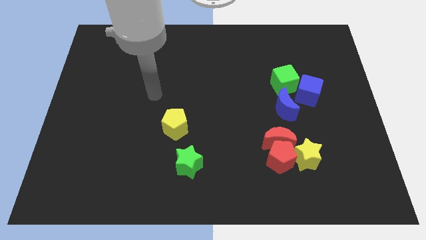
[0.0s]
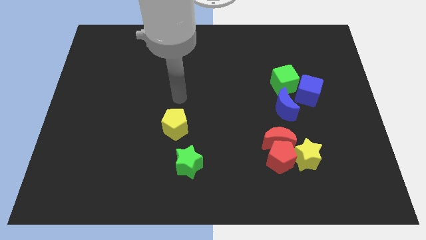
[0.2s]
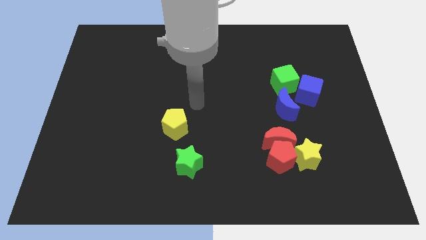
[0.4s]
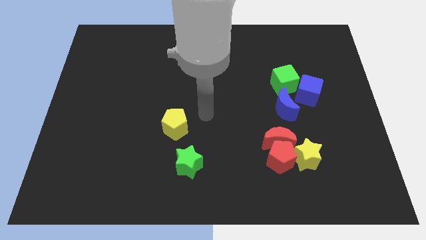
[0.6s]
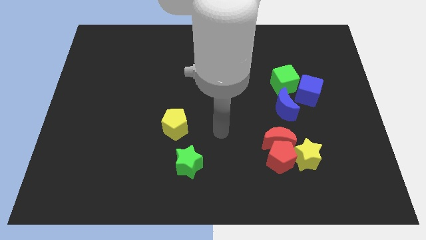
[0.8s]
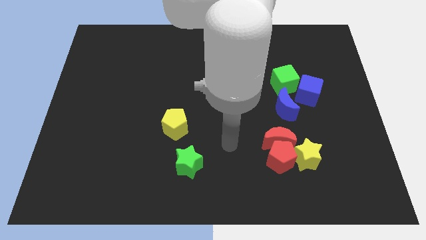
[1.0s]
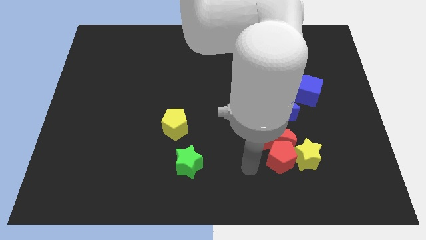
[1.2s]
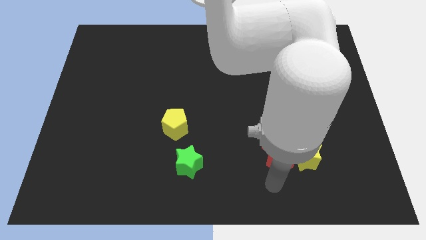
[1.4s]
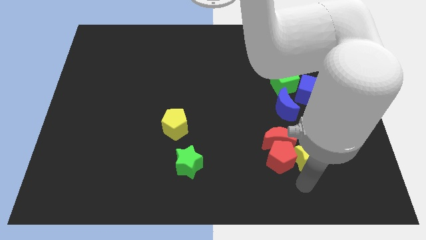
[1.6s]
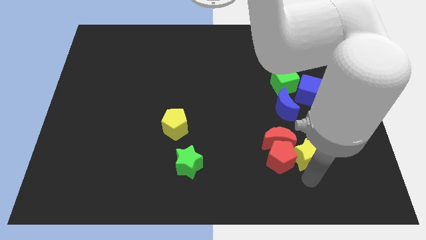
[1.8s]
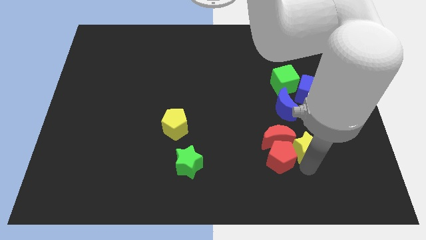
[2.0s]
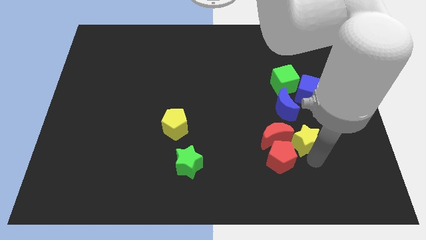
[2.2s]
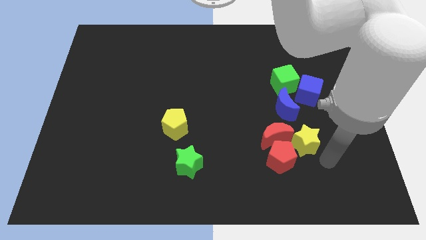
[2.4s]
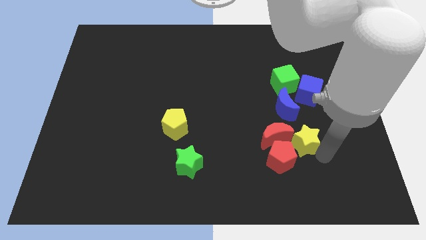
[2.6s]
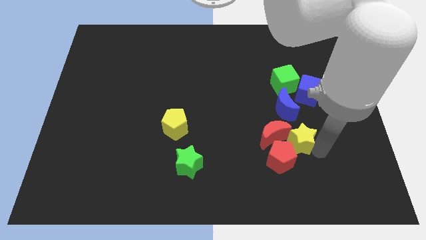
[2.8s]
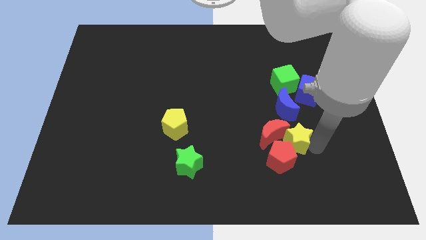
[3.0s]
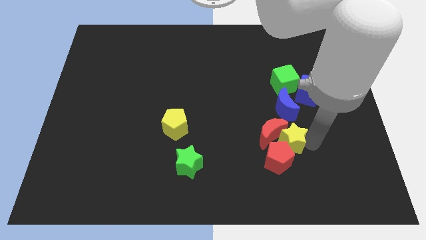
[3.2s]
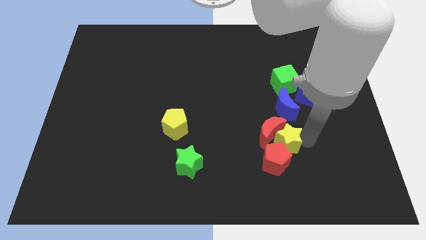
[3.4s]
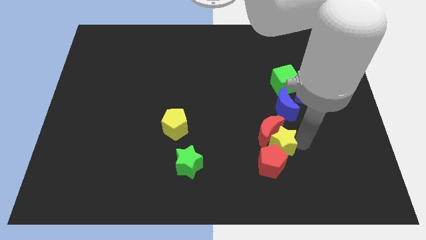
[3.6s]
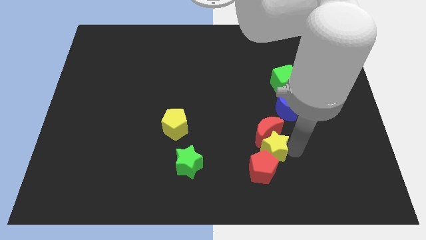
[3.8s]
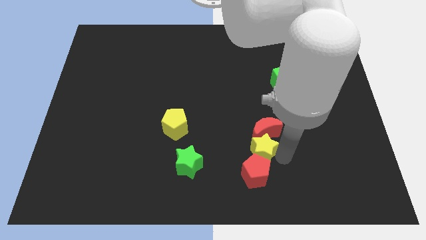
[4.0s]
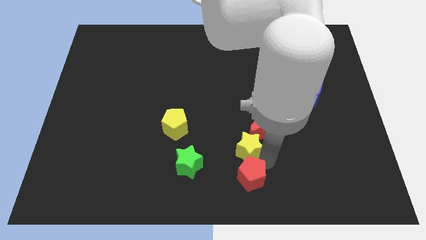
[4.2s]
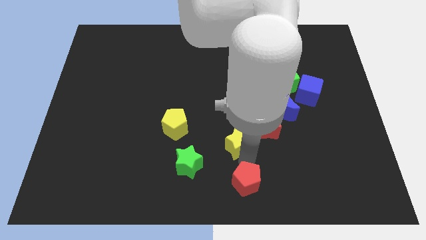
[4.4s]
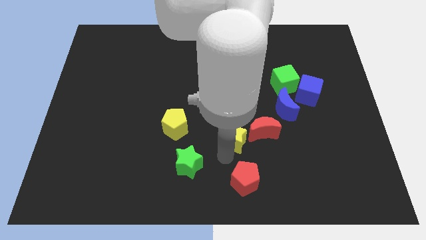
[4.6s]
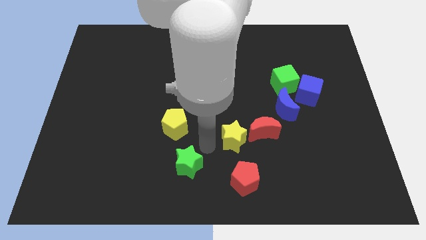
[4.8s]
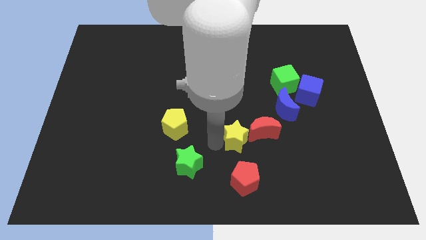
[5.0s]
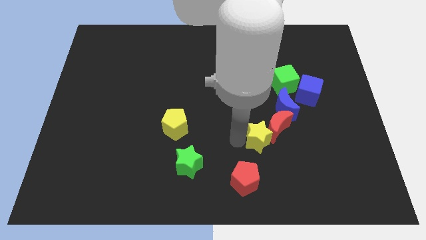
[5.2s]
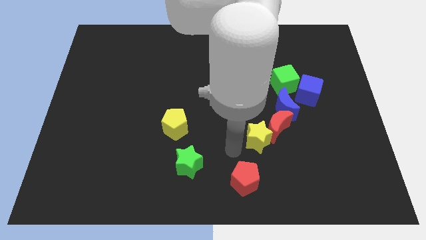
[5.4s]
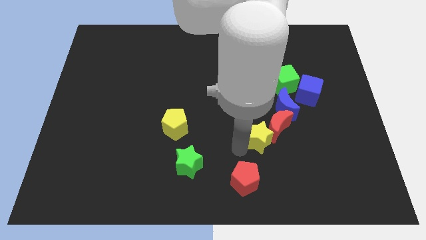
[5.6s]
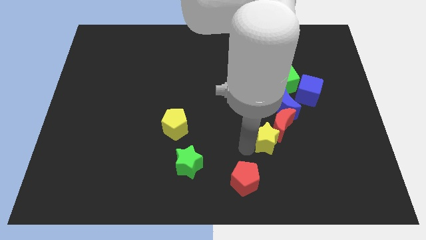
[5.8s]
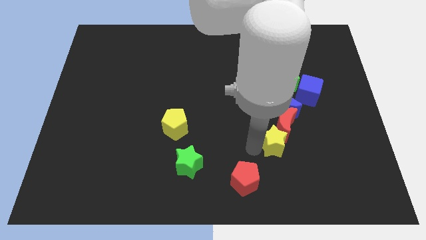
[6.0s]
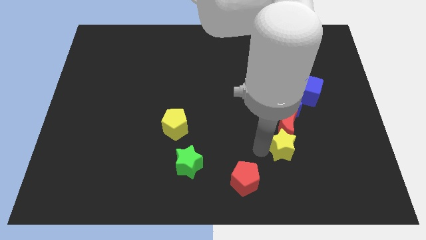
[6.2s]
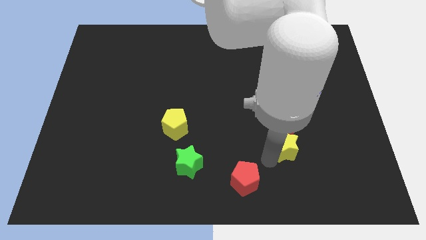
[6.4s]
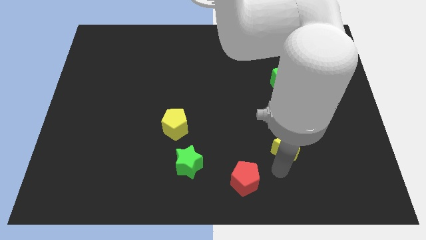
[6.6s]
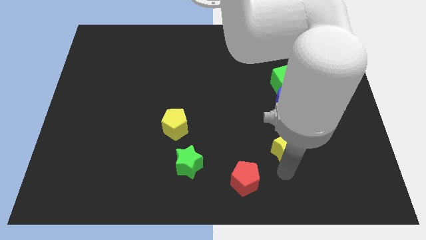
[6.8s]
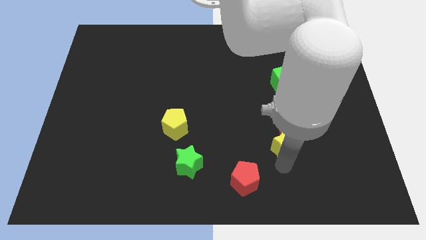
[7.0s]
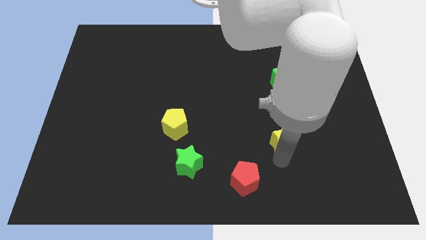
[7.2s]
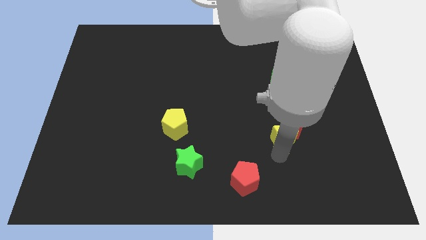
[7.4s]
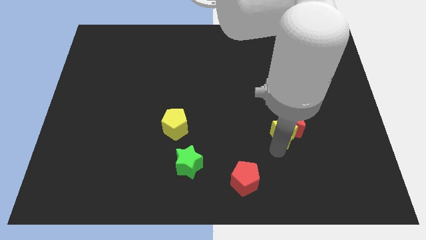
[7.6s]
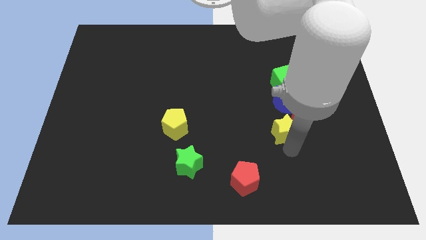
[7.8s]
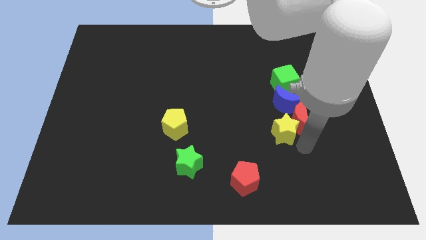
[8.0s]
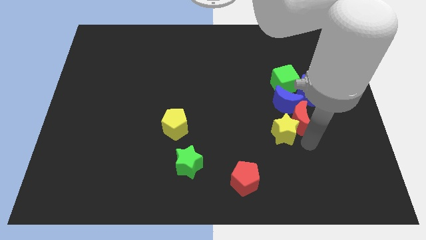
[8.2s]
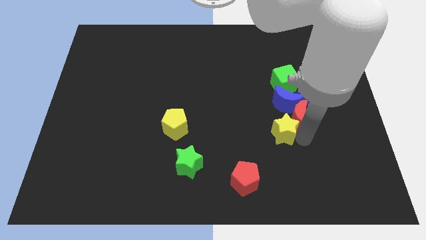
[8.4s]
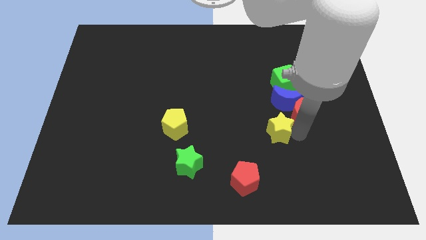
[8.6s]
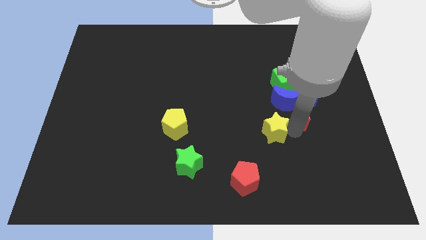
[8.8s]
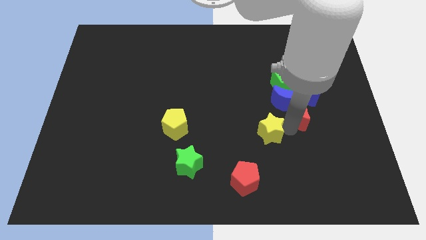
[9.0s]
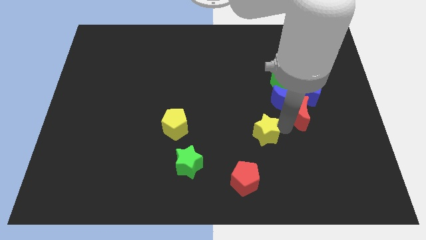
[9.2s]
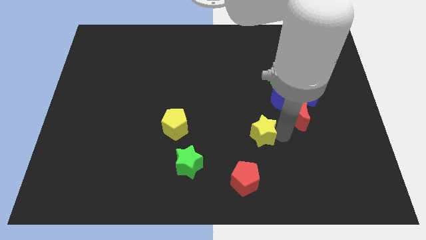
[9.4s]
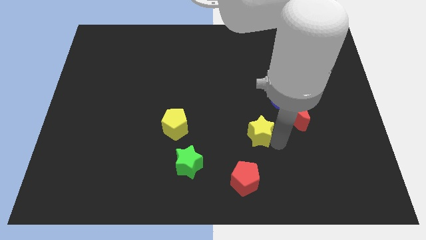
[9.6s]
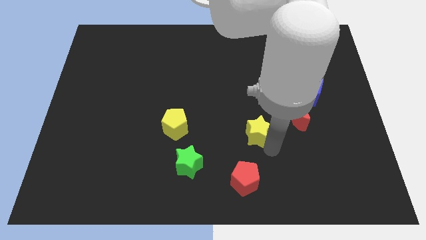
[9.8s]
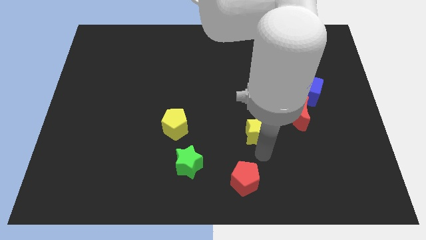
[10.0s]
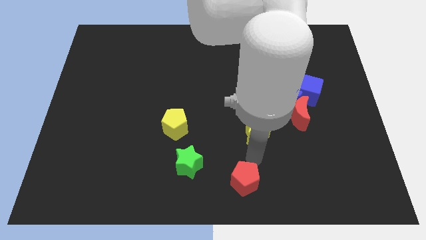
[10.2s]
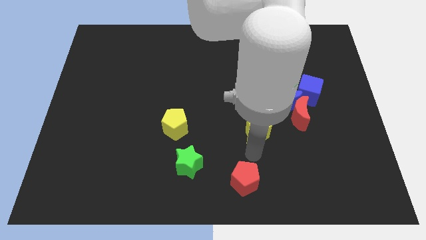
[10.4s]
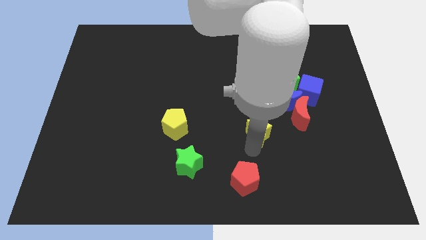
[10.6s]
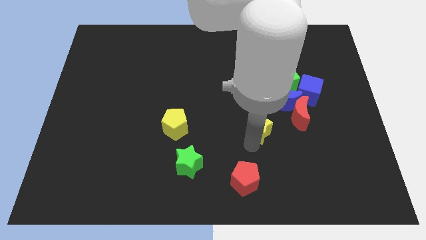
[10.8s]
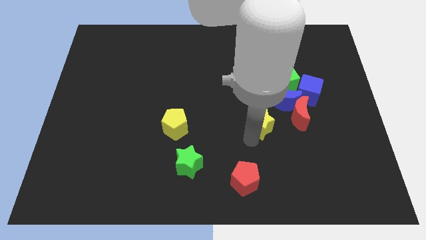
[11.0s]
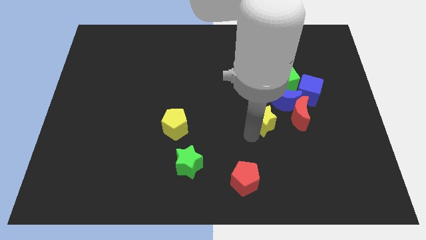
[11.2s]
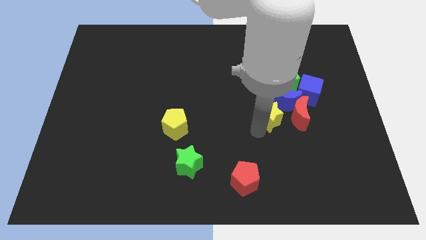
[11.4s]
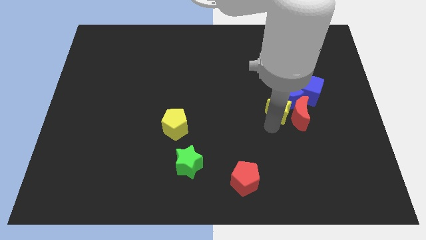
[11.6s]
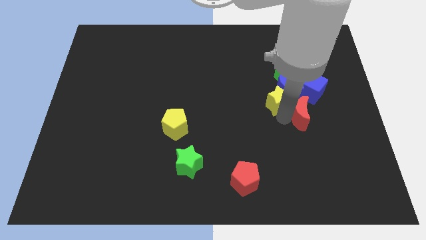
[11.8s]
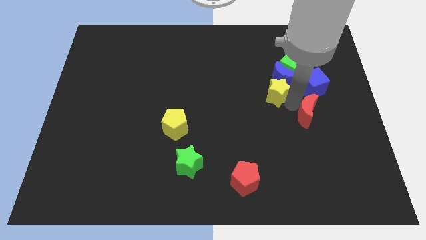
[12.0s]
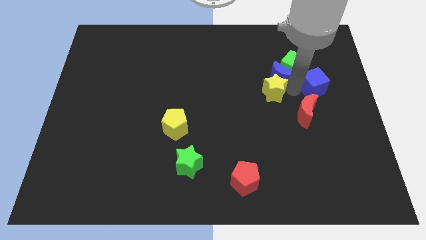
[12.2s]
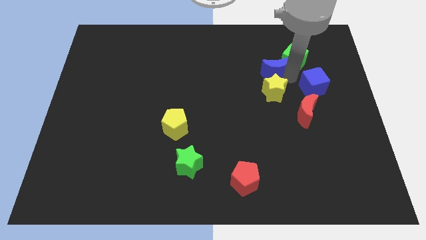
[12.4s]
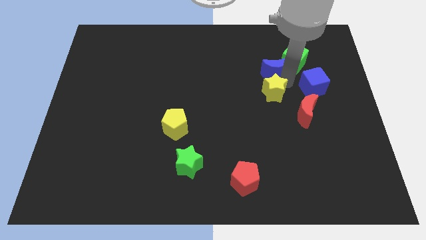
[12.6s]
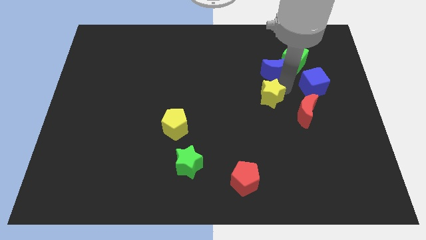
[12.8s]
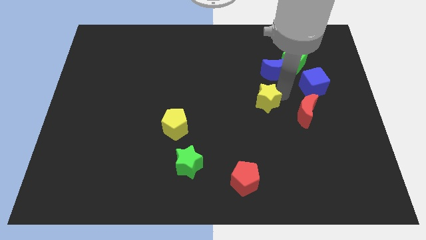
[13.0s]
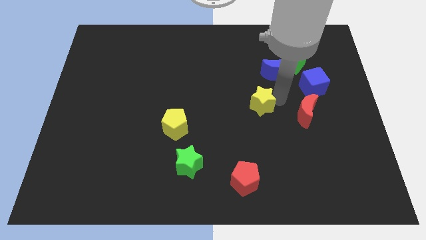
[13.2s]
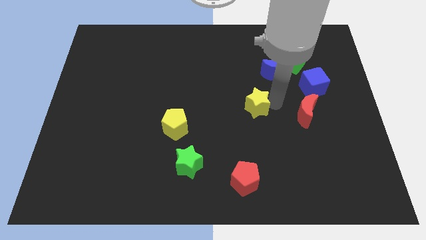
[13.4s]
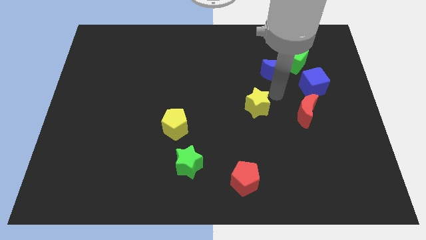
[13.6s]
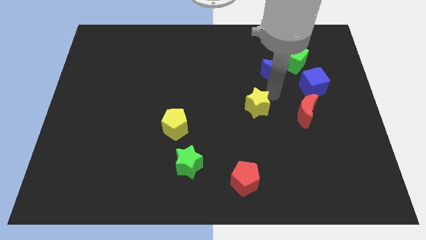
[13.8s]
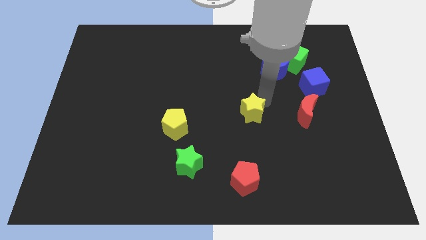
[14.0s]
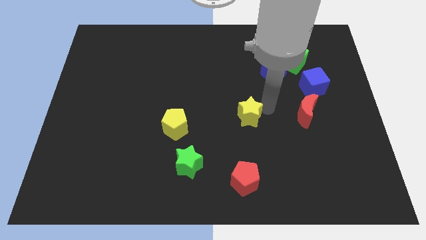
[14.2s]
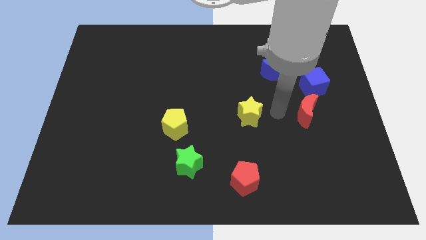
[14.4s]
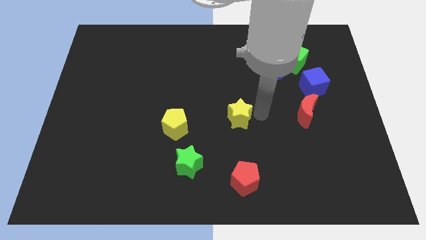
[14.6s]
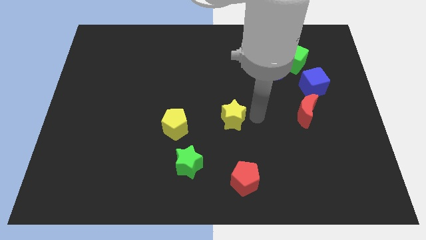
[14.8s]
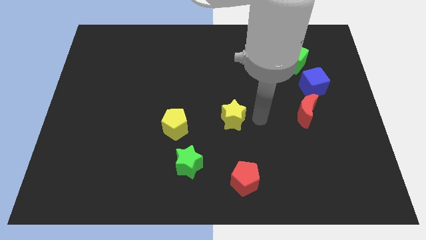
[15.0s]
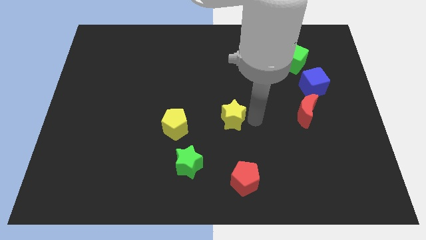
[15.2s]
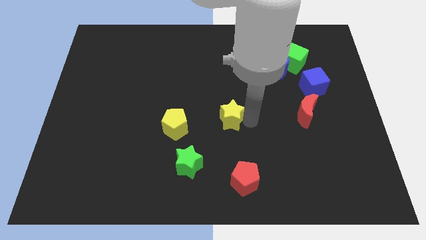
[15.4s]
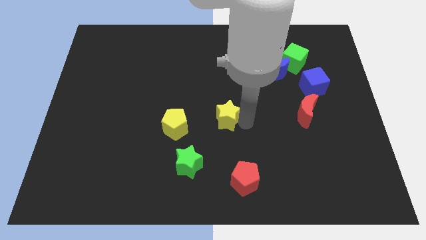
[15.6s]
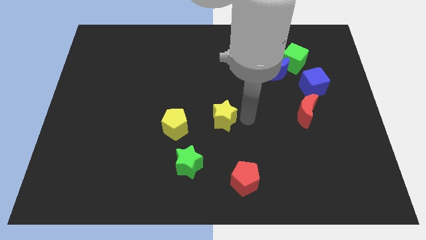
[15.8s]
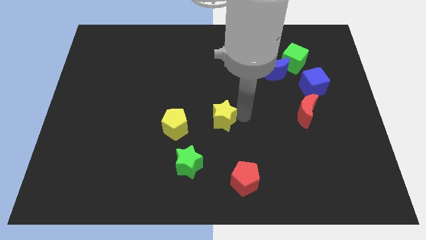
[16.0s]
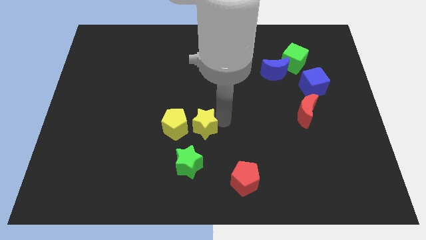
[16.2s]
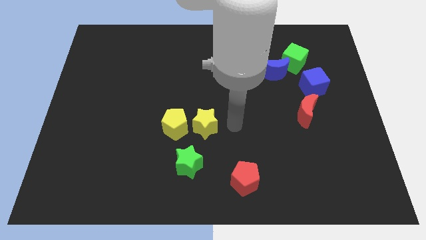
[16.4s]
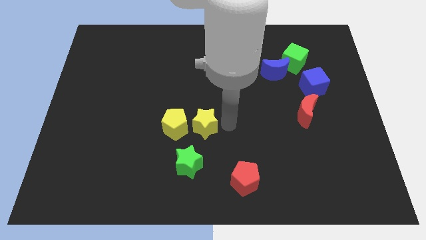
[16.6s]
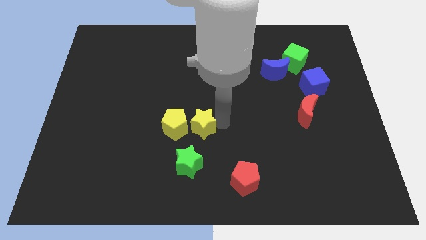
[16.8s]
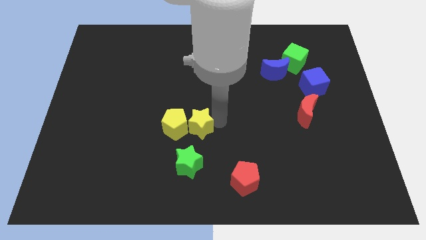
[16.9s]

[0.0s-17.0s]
slide the yellow star towards the yellow pentagon
